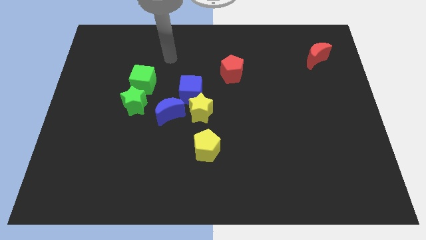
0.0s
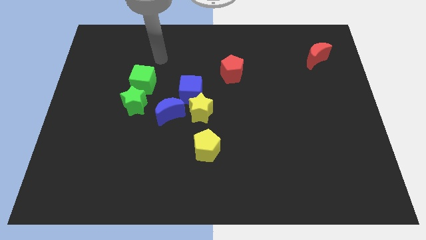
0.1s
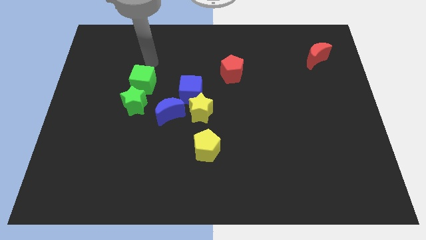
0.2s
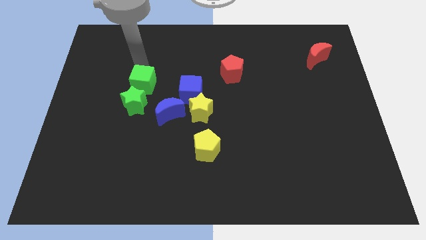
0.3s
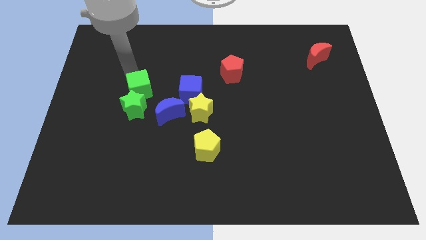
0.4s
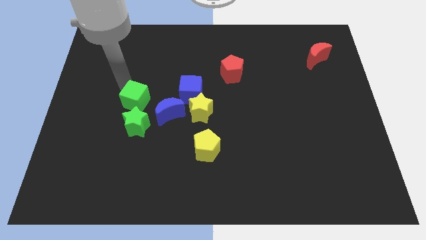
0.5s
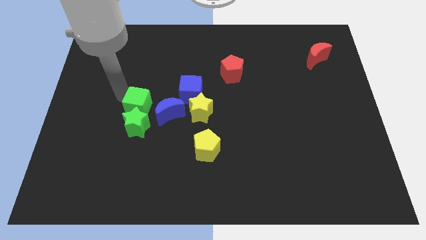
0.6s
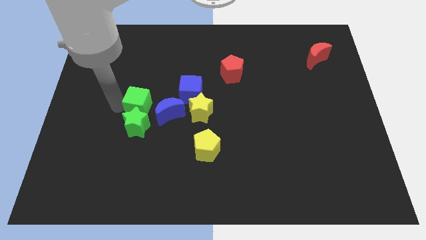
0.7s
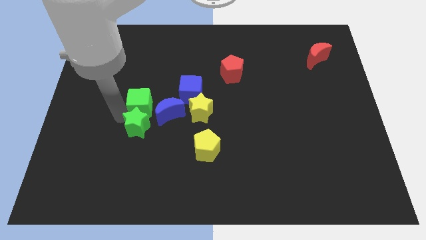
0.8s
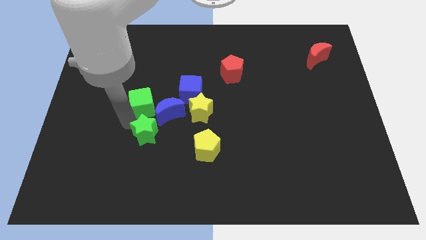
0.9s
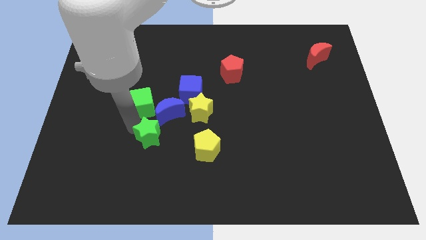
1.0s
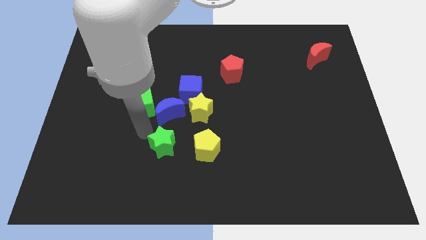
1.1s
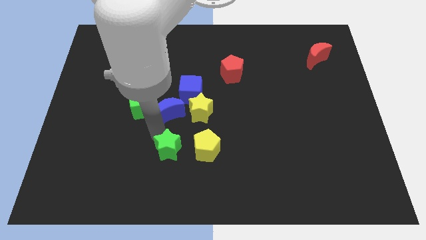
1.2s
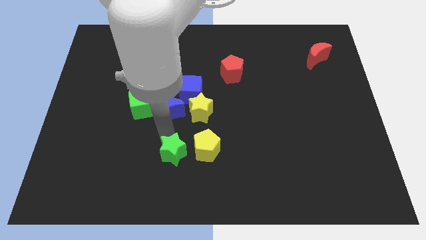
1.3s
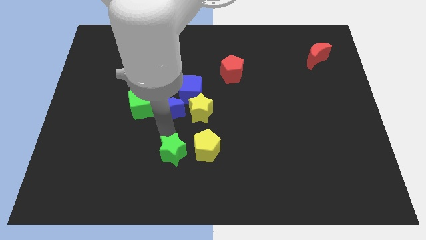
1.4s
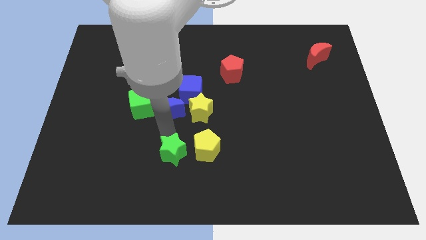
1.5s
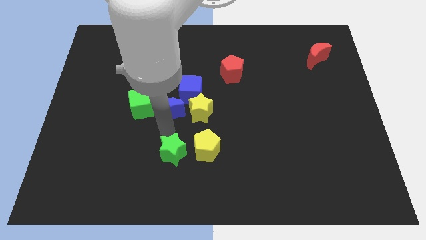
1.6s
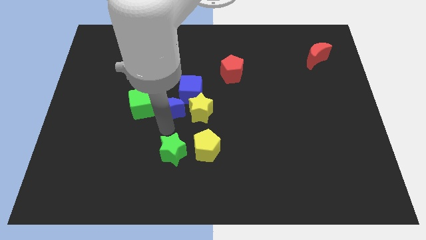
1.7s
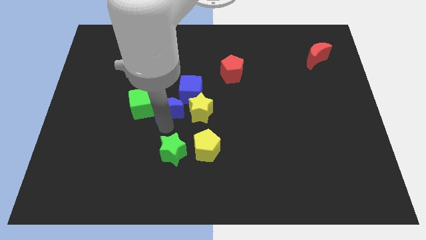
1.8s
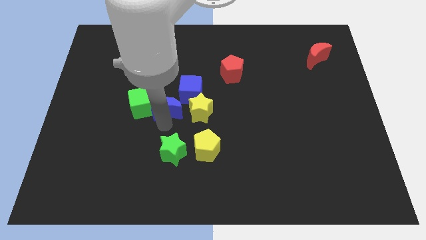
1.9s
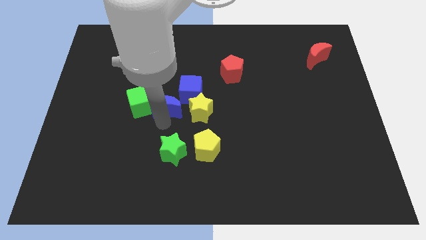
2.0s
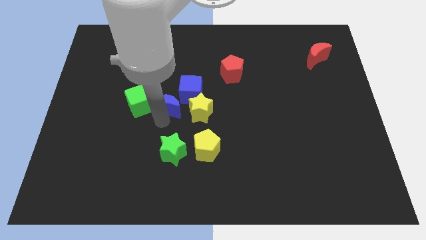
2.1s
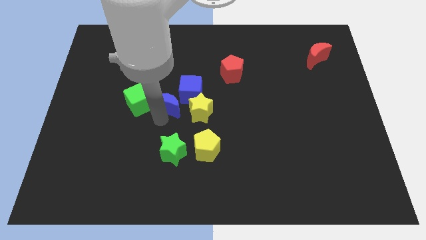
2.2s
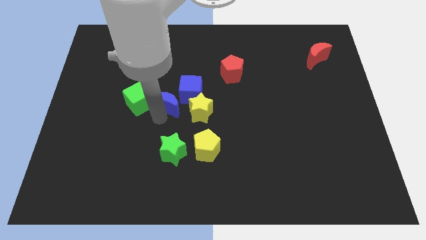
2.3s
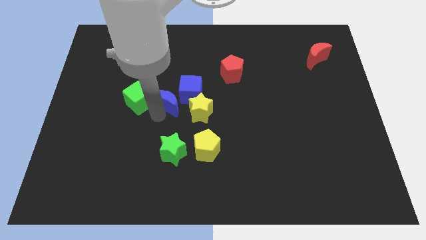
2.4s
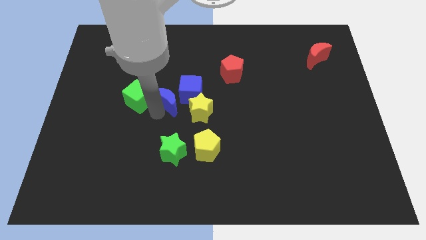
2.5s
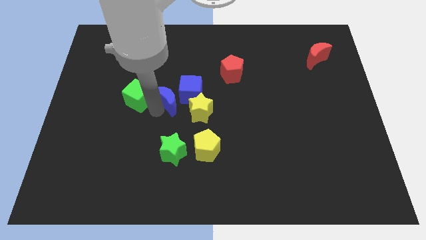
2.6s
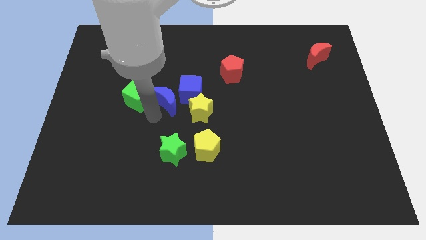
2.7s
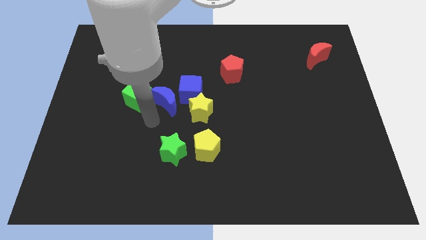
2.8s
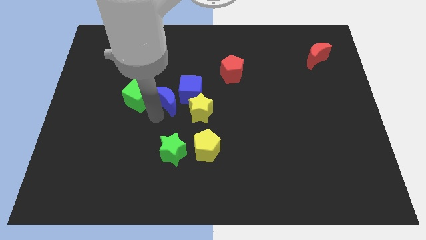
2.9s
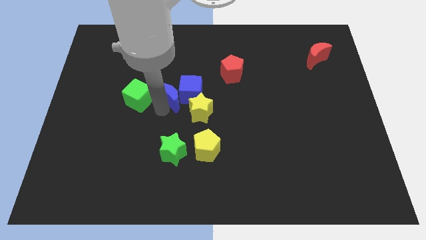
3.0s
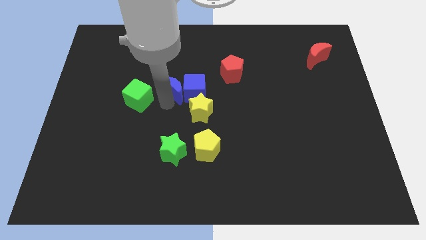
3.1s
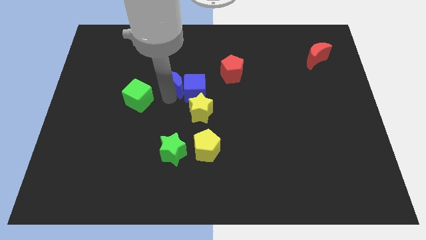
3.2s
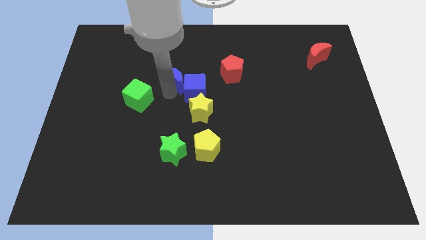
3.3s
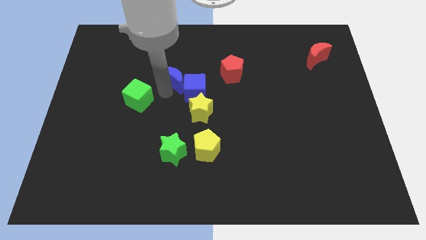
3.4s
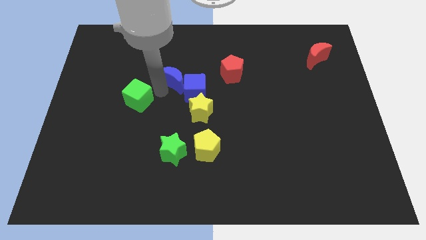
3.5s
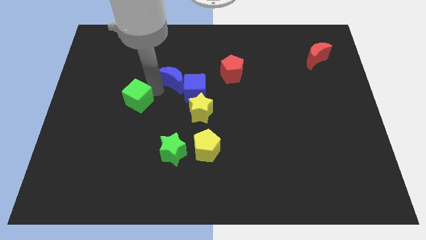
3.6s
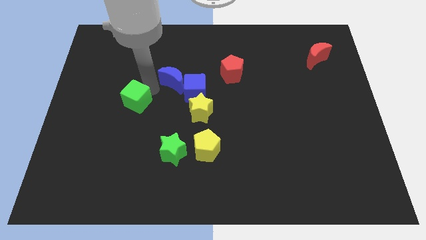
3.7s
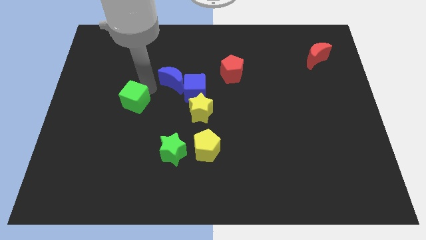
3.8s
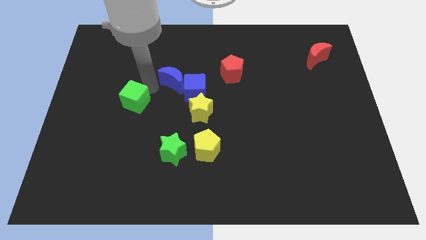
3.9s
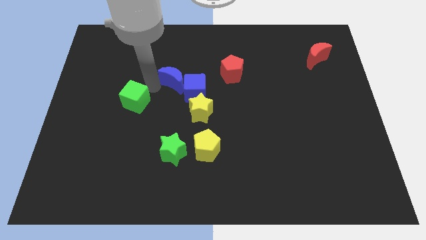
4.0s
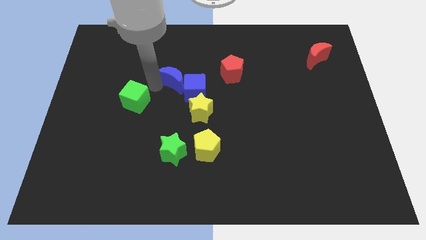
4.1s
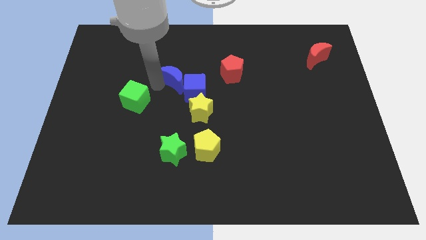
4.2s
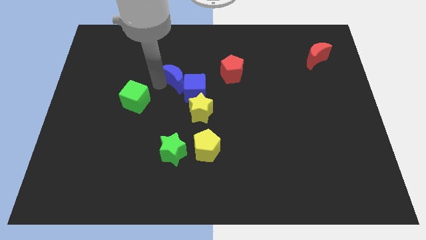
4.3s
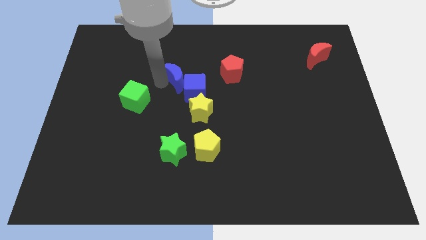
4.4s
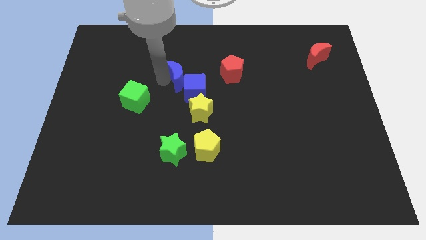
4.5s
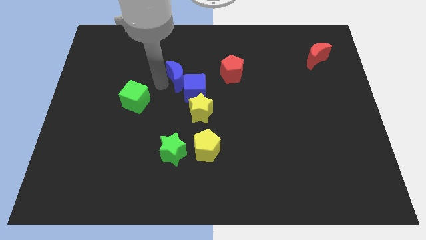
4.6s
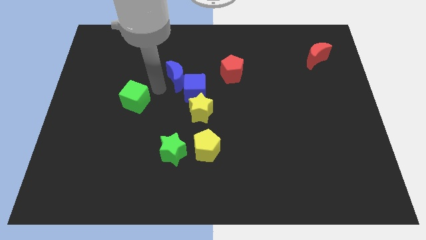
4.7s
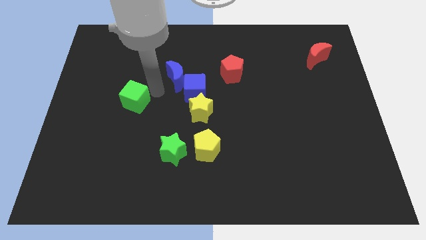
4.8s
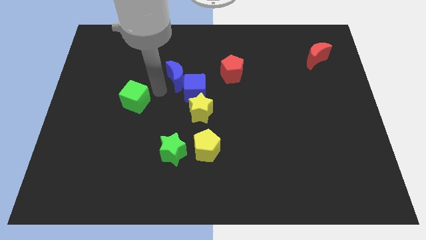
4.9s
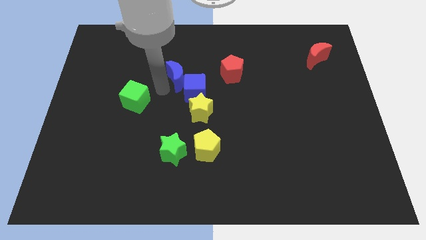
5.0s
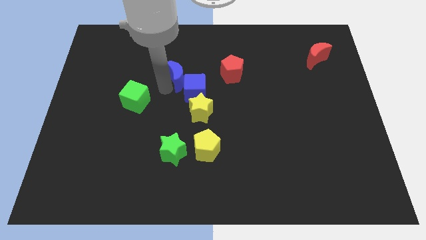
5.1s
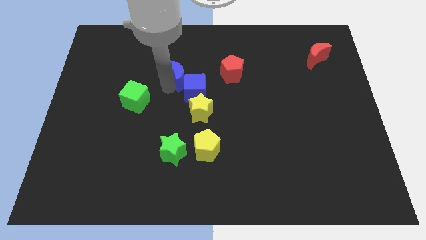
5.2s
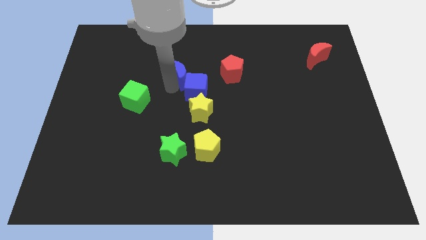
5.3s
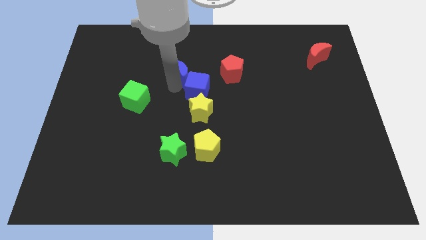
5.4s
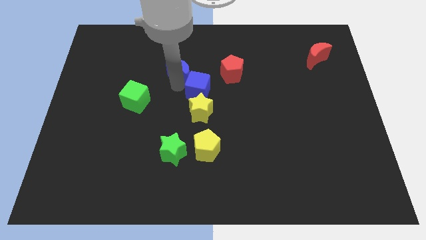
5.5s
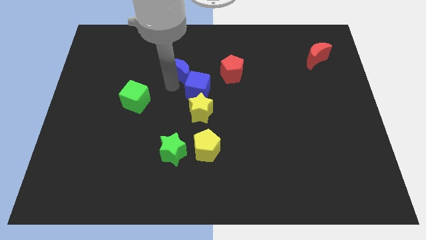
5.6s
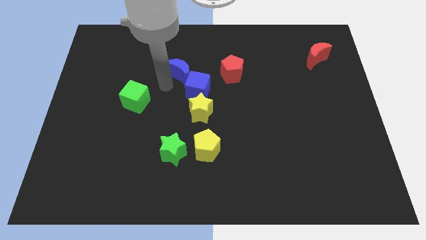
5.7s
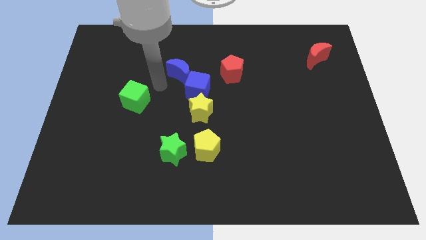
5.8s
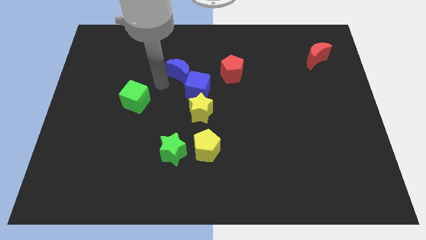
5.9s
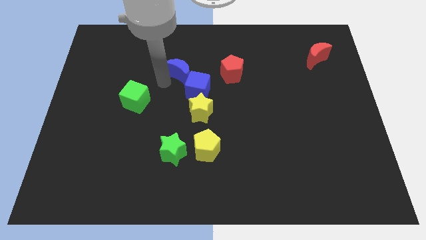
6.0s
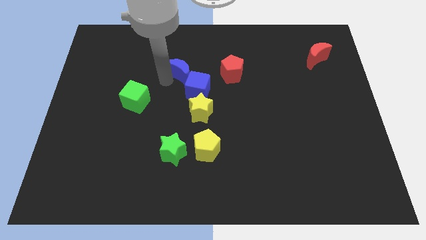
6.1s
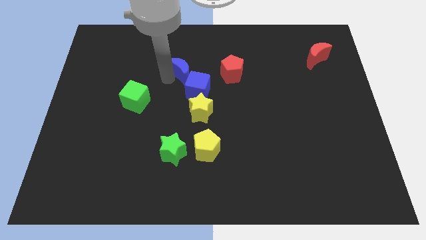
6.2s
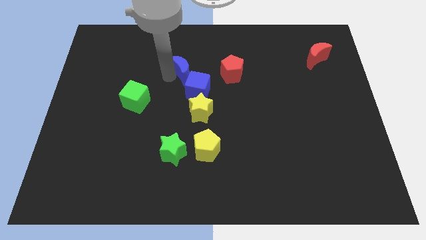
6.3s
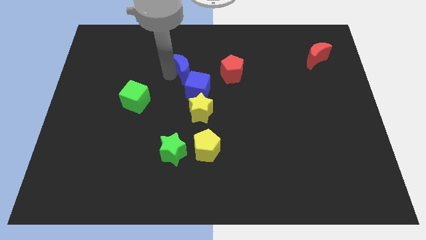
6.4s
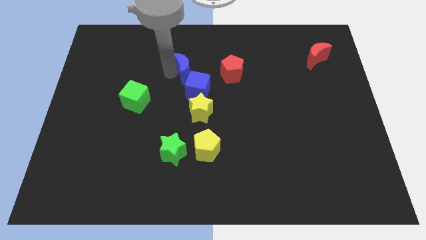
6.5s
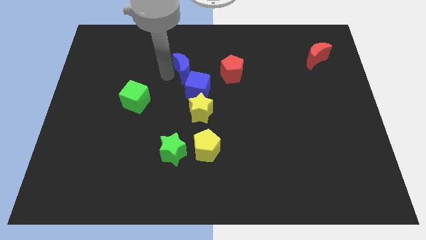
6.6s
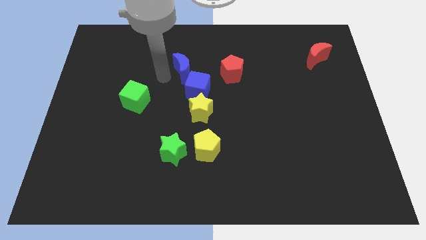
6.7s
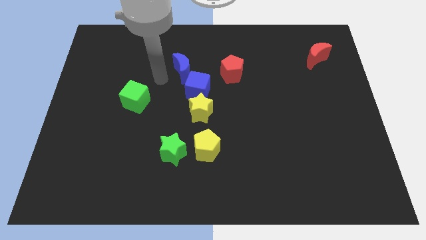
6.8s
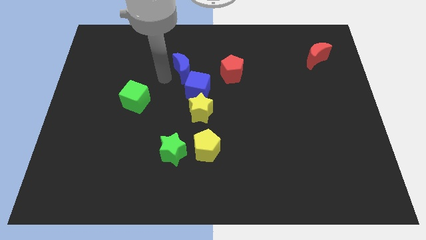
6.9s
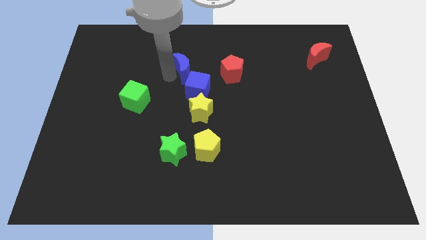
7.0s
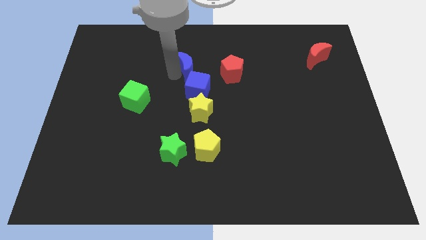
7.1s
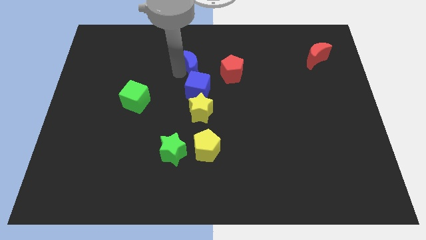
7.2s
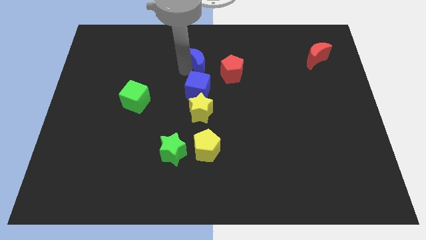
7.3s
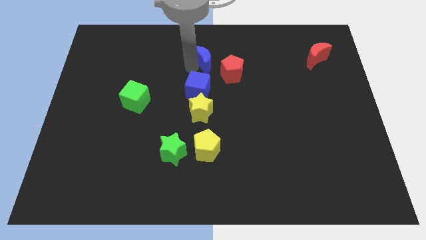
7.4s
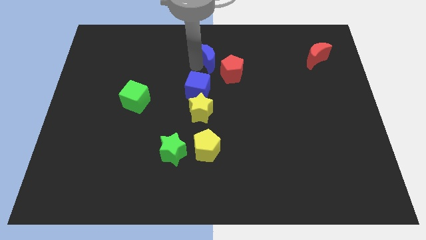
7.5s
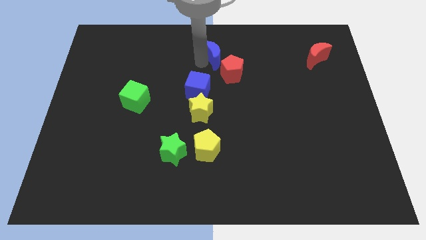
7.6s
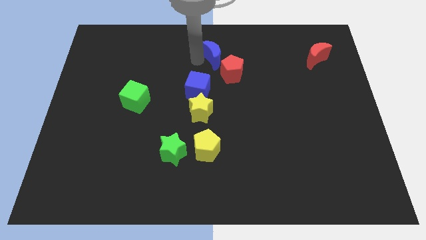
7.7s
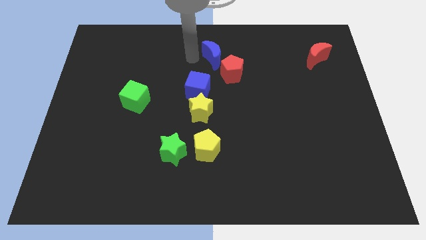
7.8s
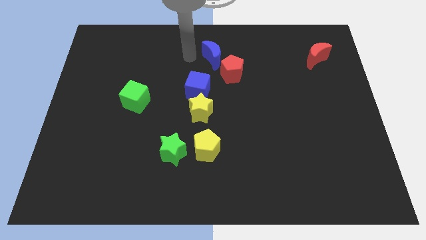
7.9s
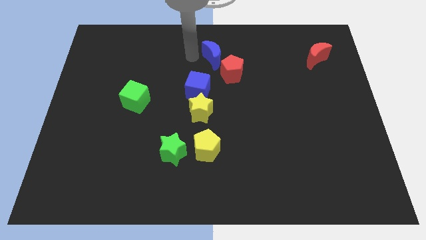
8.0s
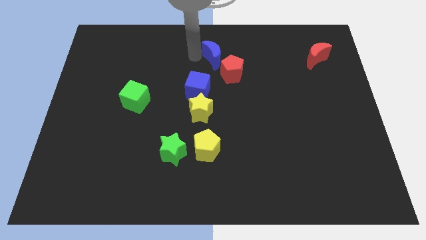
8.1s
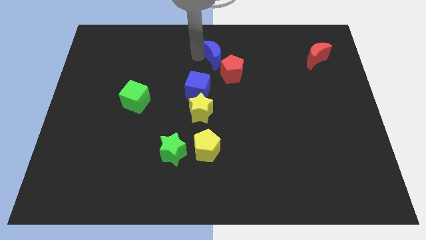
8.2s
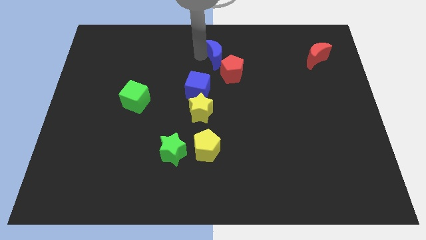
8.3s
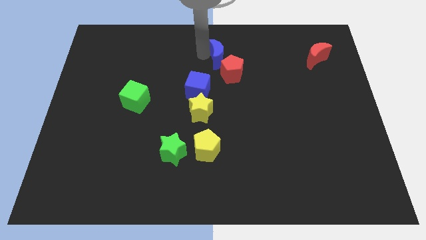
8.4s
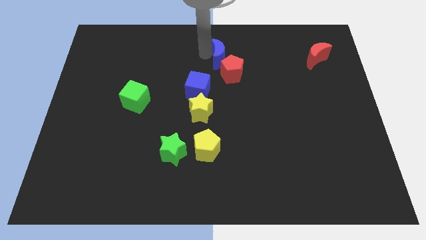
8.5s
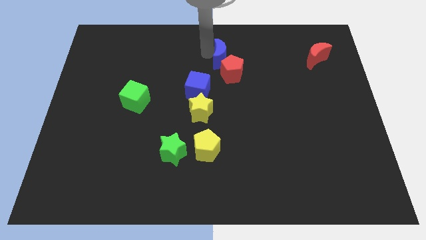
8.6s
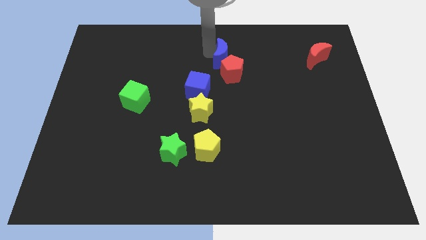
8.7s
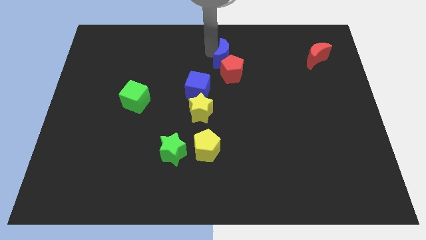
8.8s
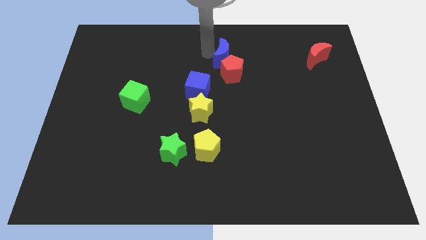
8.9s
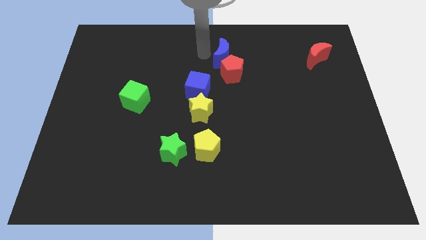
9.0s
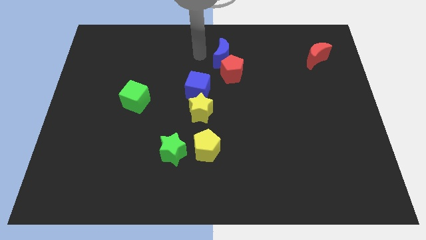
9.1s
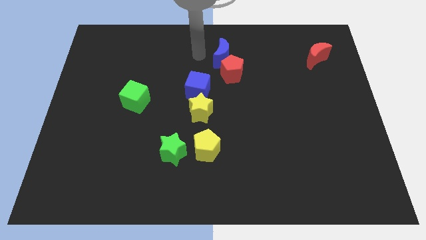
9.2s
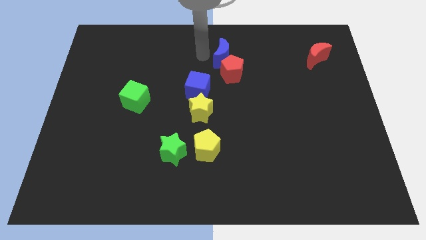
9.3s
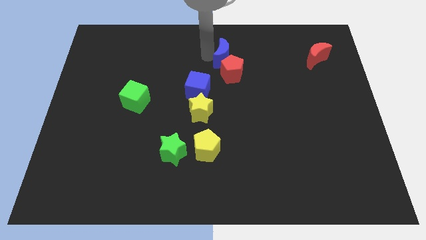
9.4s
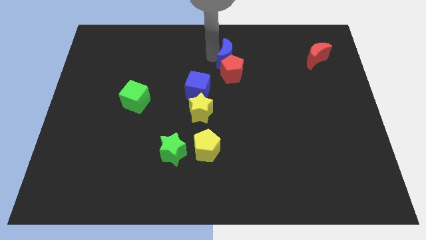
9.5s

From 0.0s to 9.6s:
move the blue moon to the top right side of the red pentagon
